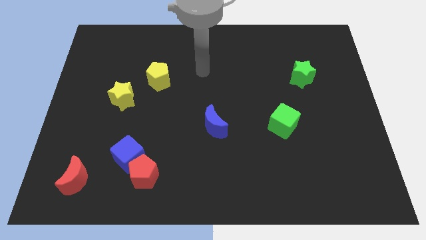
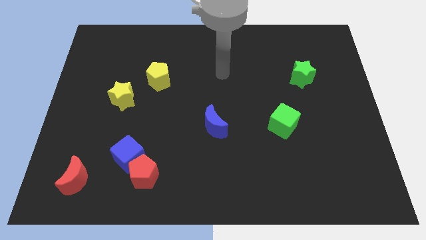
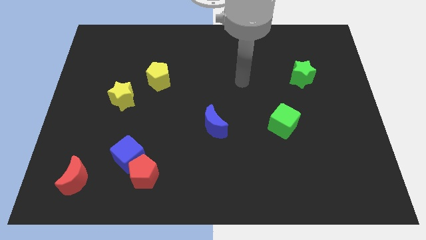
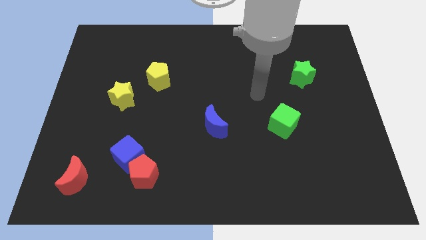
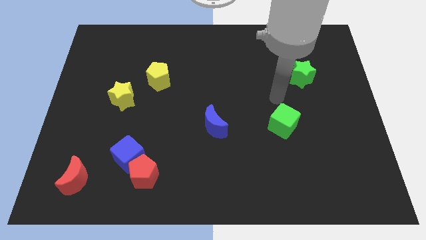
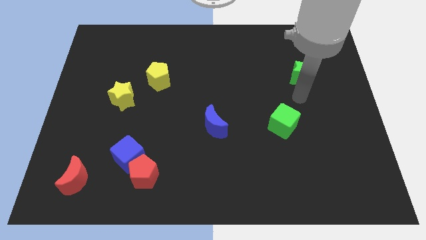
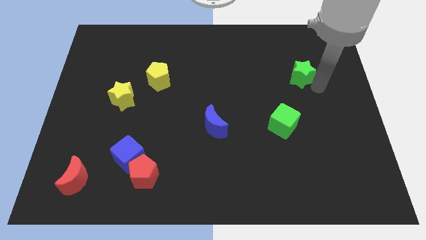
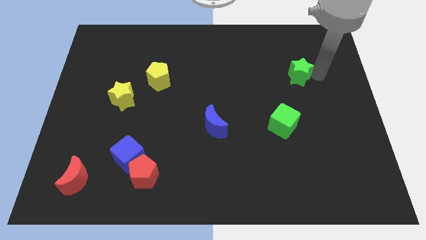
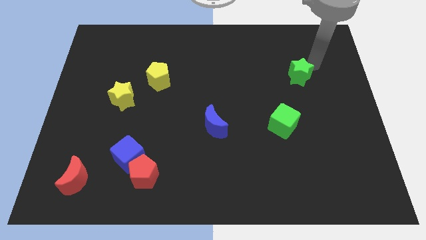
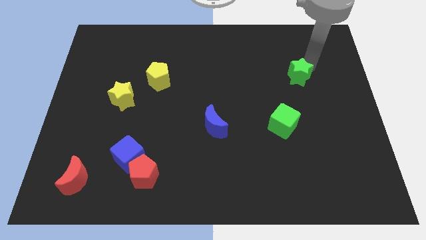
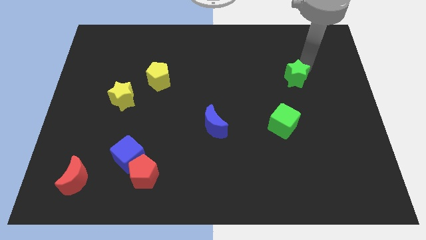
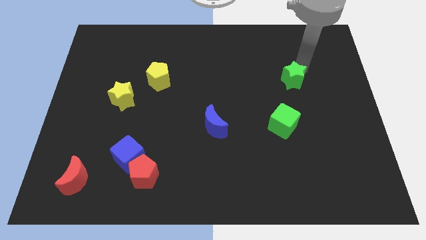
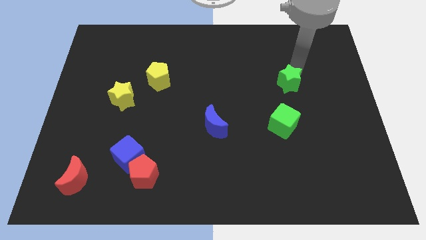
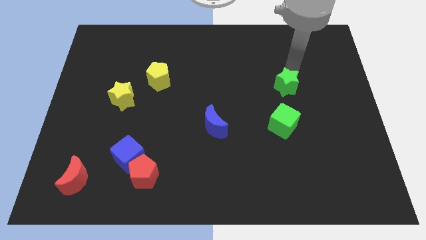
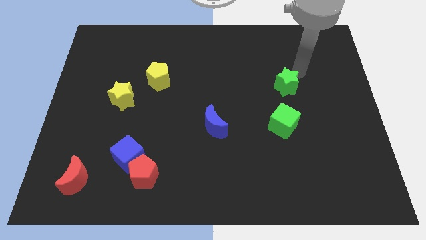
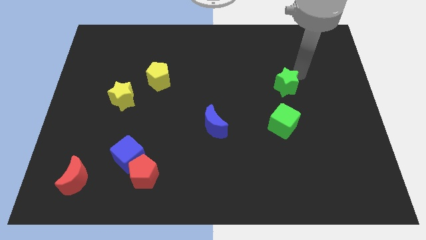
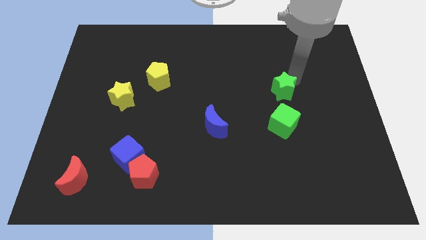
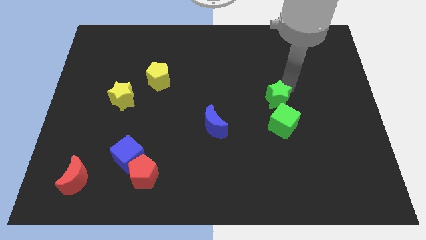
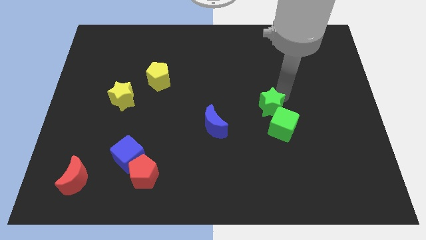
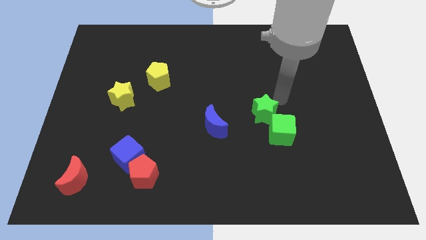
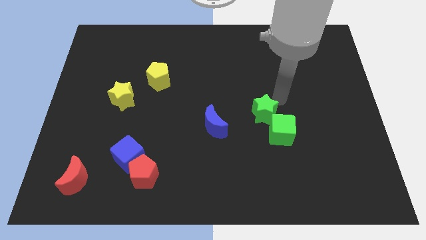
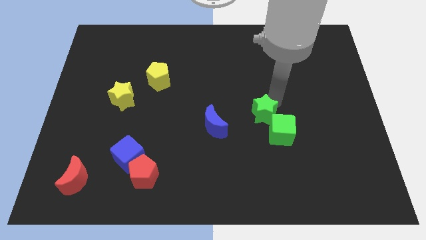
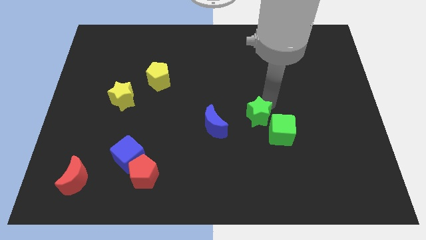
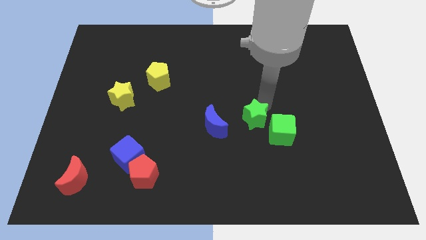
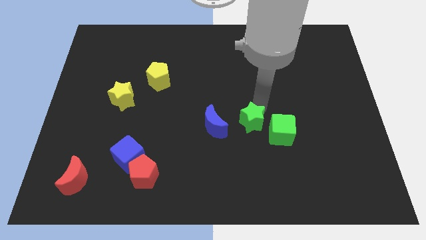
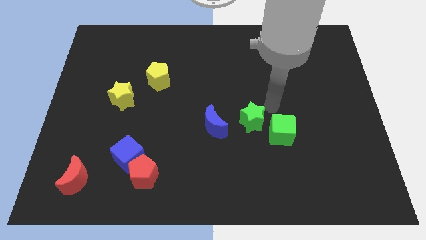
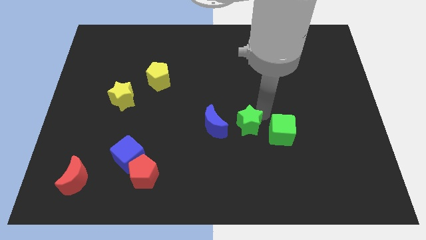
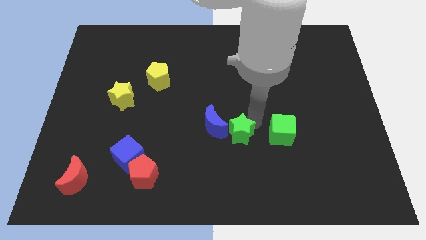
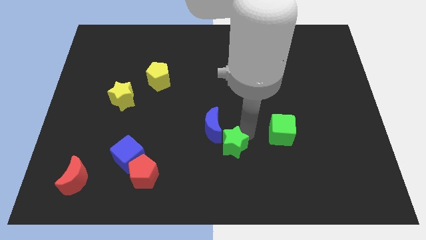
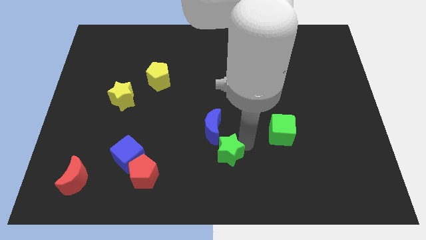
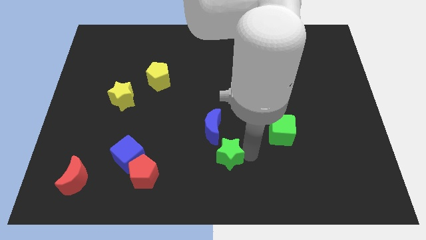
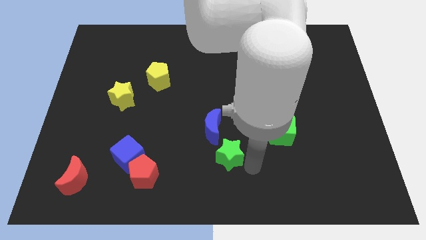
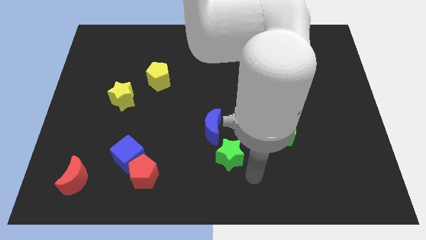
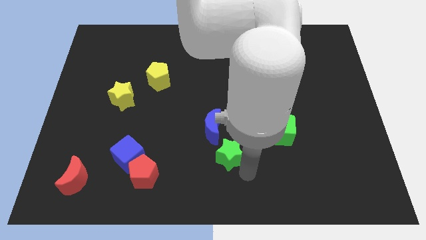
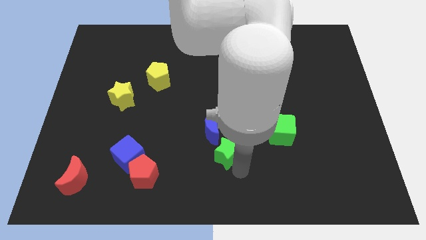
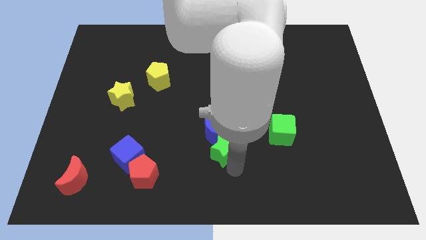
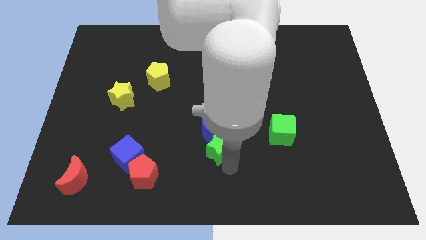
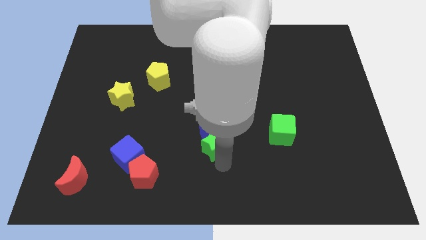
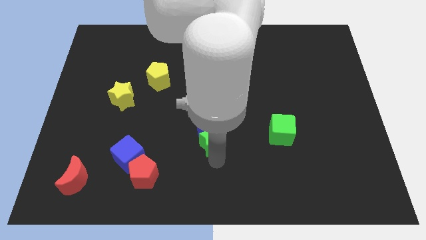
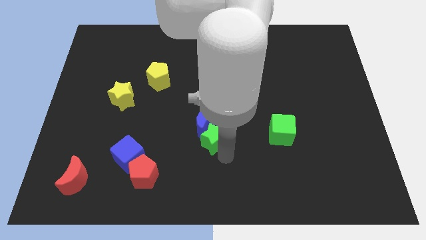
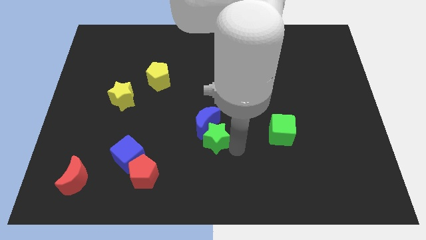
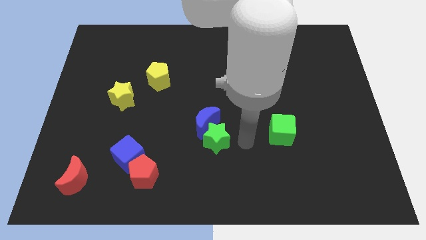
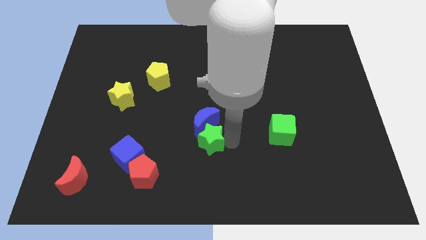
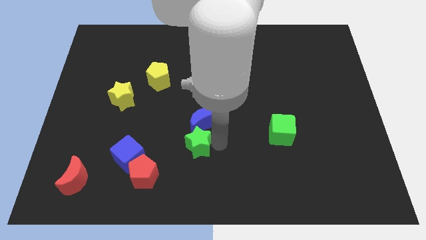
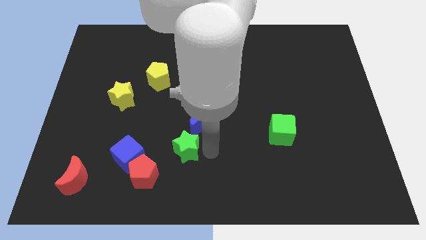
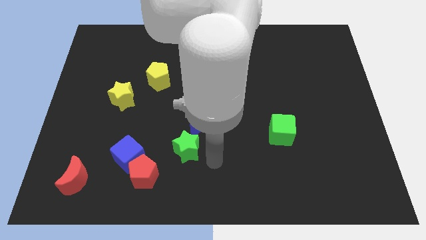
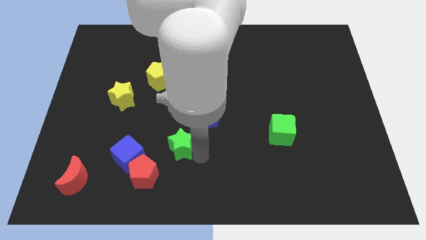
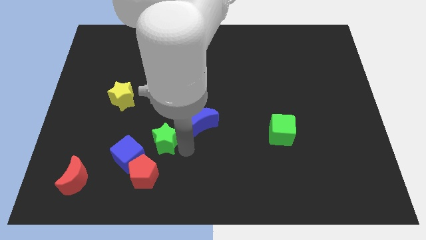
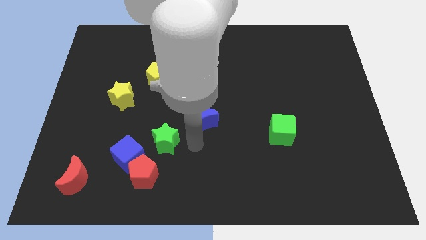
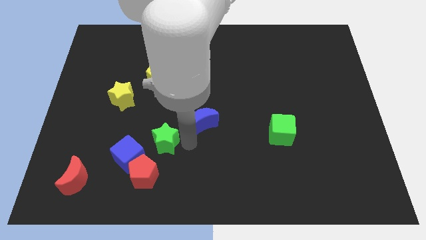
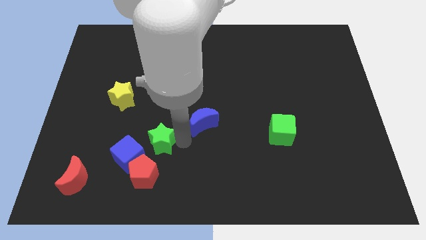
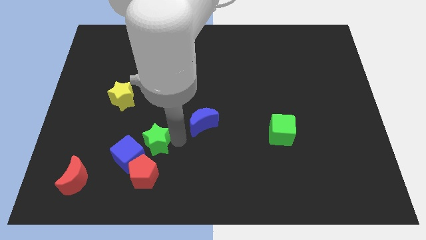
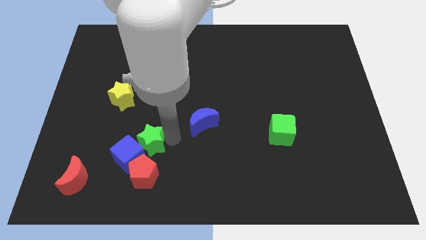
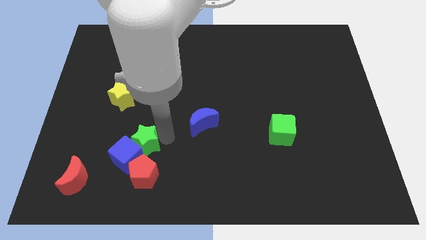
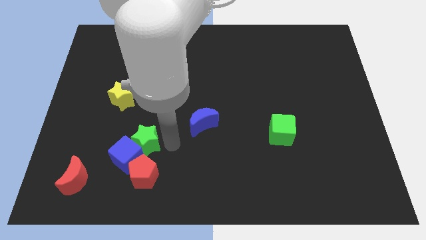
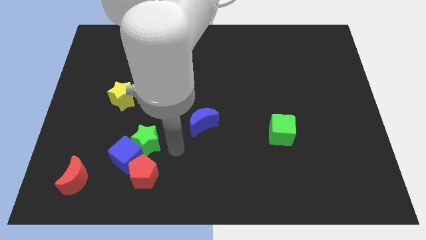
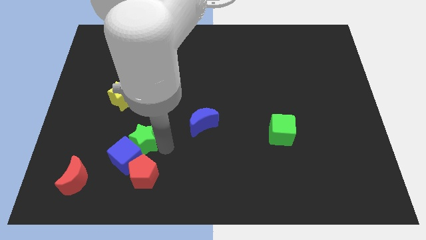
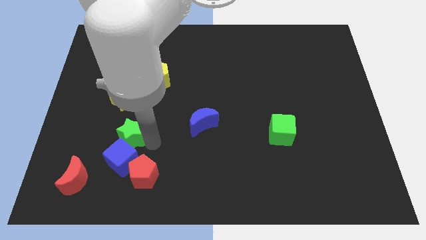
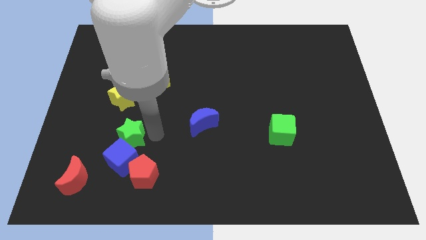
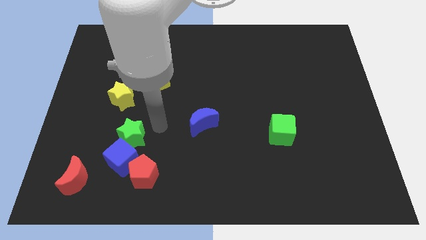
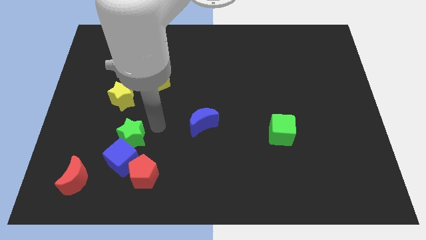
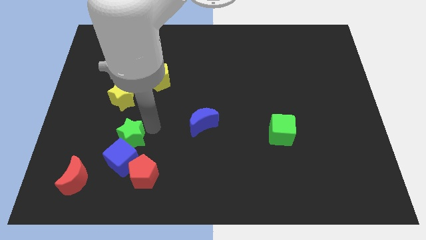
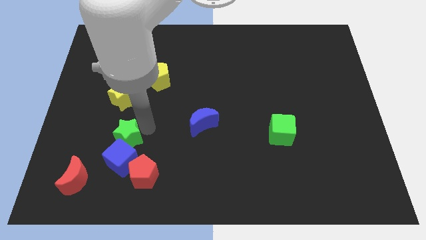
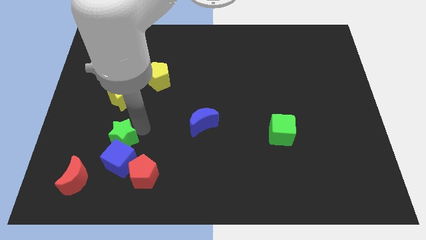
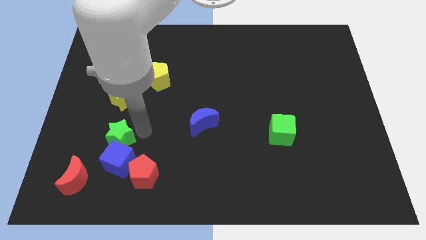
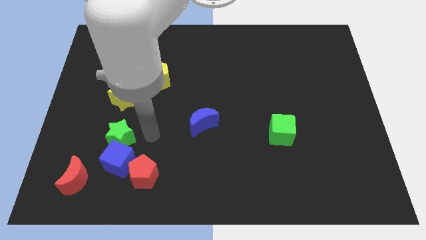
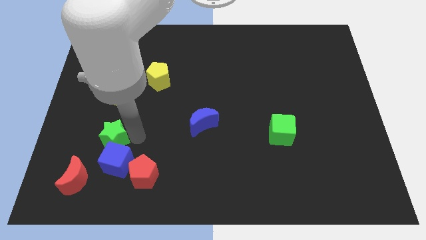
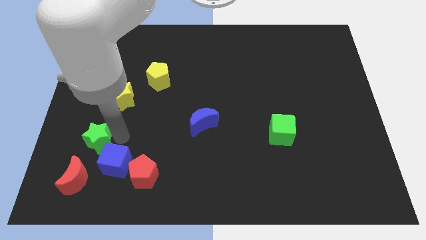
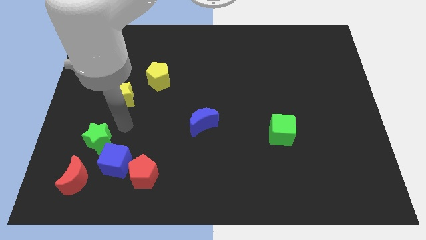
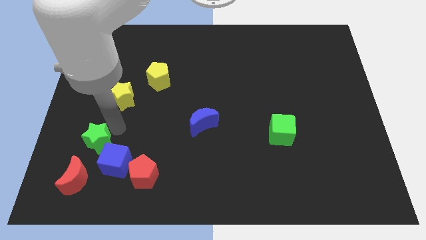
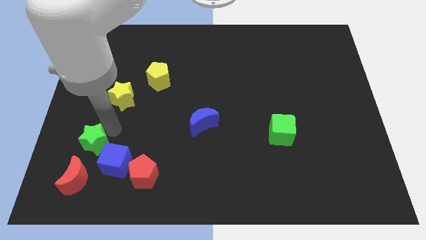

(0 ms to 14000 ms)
move the green star just left of the blue cube
